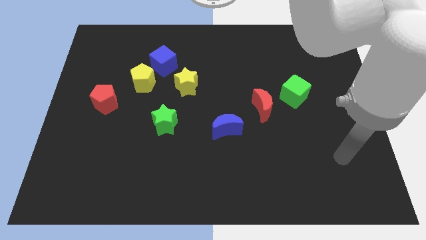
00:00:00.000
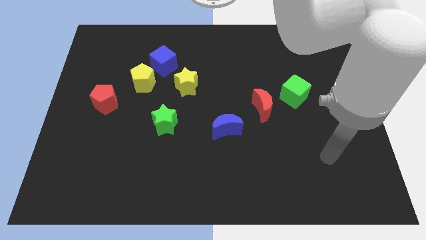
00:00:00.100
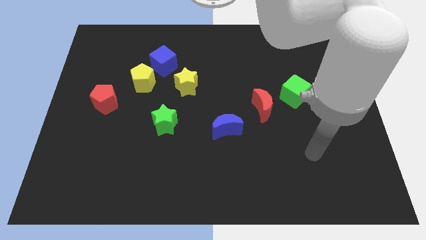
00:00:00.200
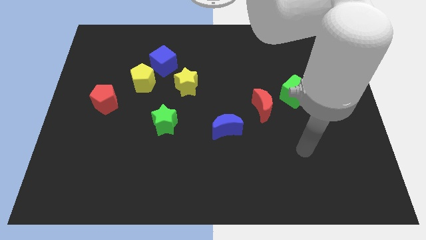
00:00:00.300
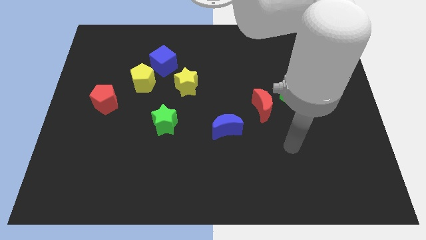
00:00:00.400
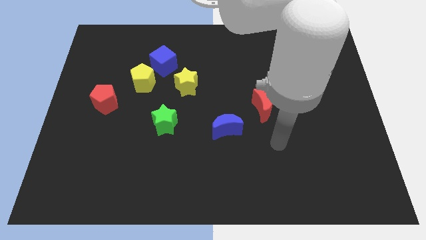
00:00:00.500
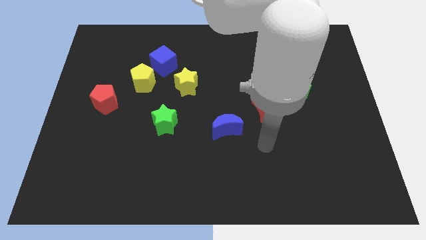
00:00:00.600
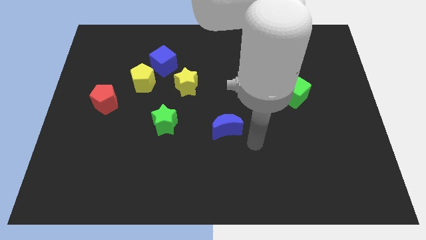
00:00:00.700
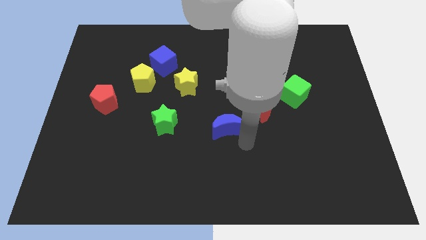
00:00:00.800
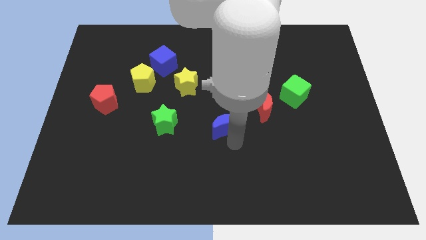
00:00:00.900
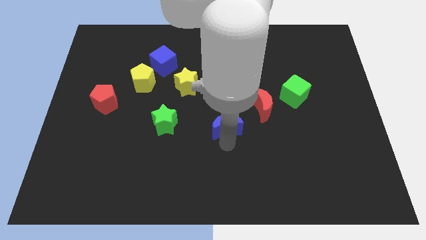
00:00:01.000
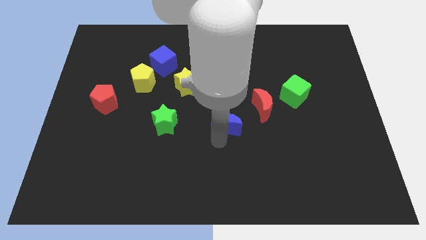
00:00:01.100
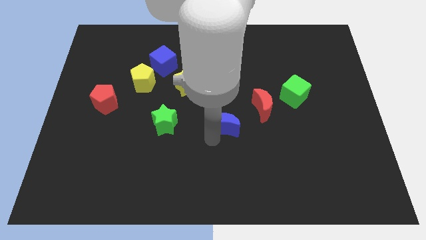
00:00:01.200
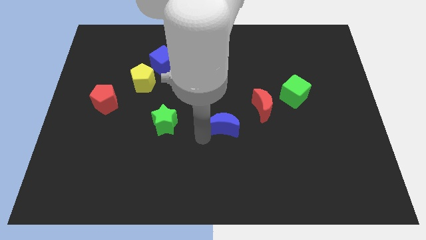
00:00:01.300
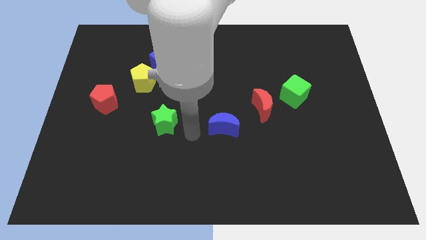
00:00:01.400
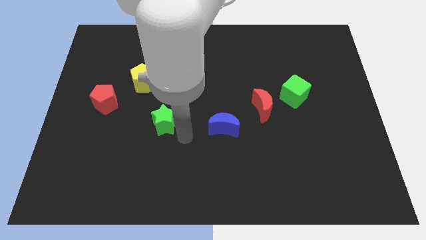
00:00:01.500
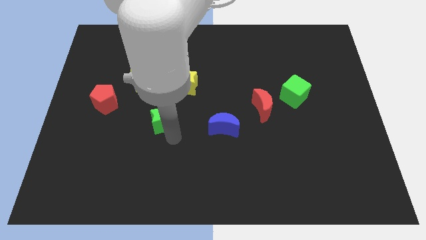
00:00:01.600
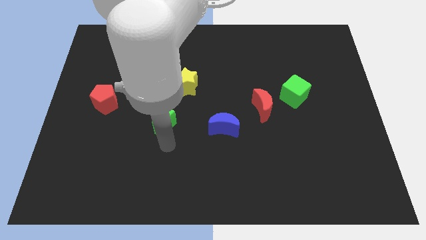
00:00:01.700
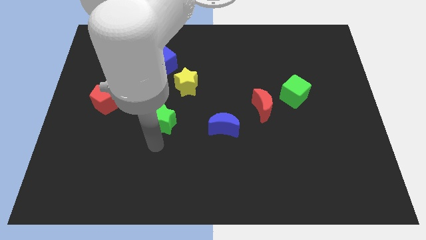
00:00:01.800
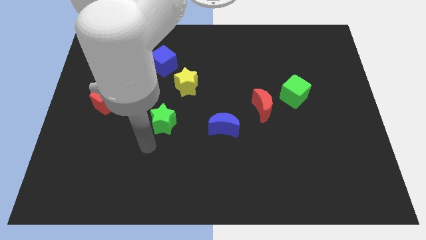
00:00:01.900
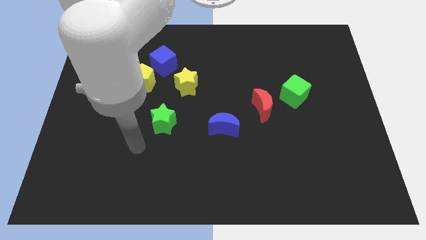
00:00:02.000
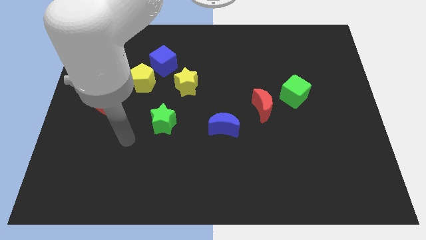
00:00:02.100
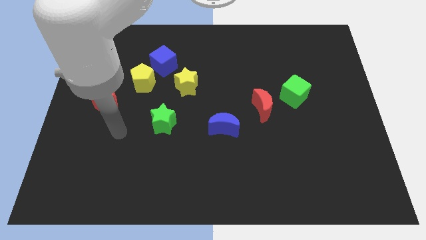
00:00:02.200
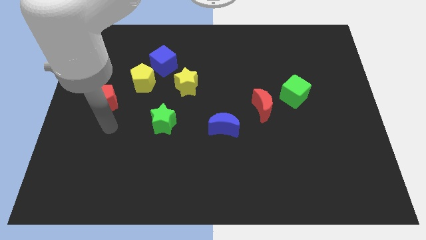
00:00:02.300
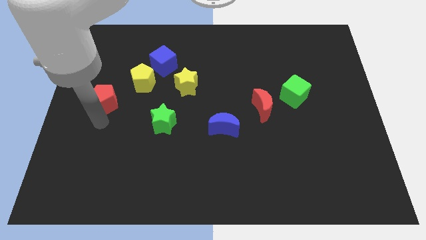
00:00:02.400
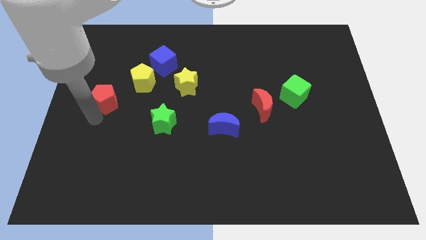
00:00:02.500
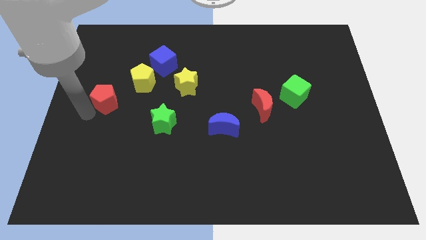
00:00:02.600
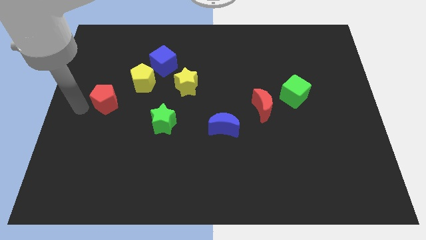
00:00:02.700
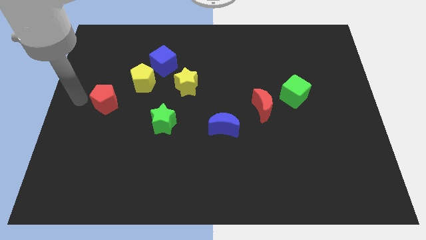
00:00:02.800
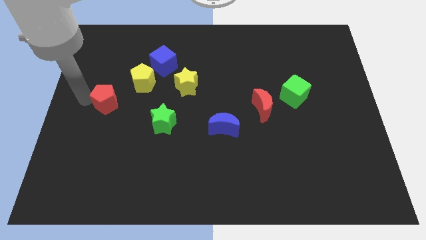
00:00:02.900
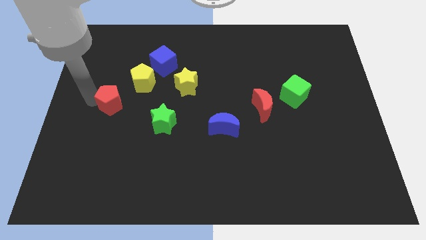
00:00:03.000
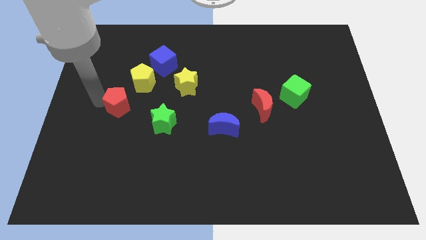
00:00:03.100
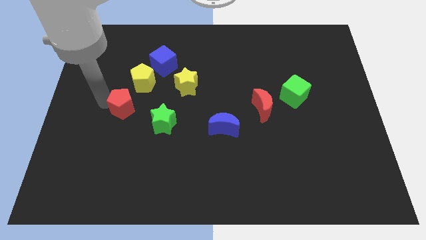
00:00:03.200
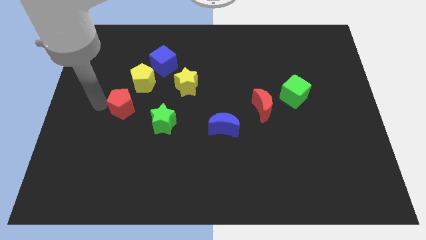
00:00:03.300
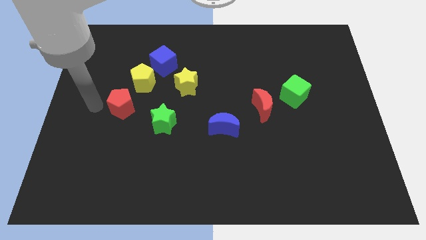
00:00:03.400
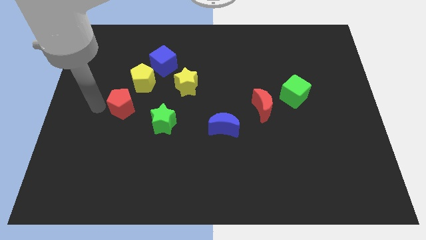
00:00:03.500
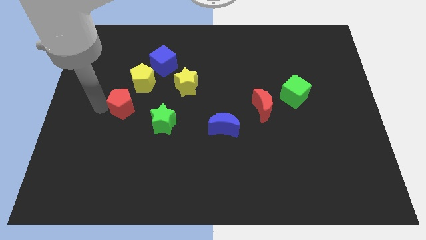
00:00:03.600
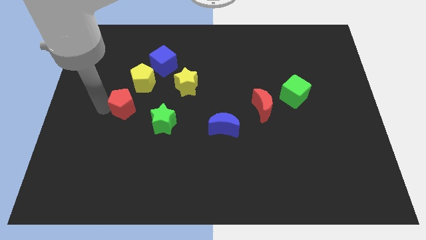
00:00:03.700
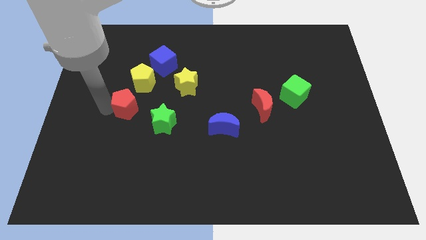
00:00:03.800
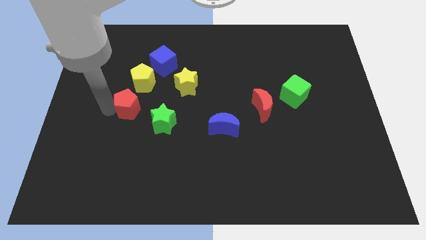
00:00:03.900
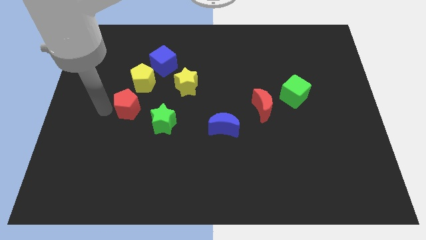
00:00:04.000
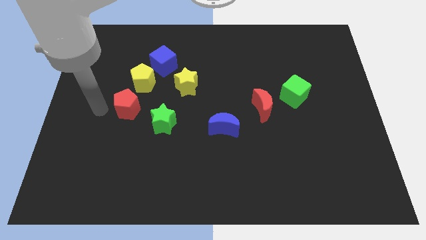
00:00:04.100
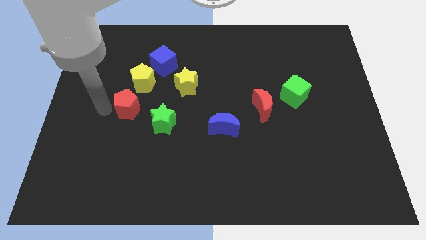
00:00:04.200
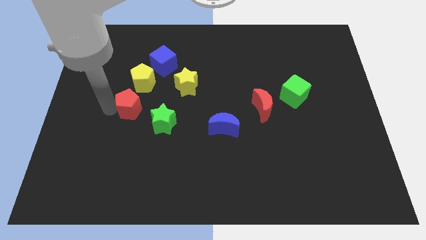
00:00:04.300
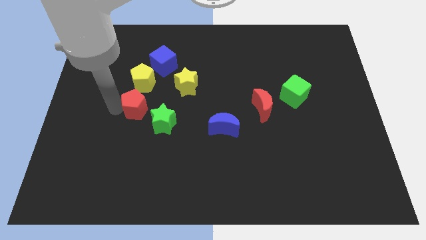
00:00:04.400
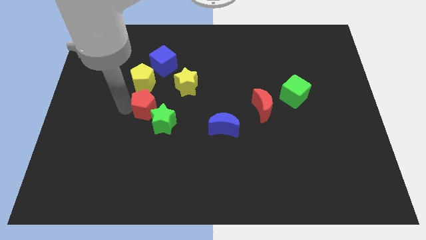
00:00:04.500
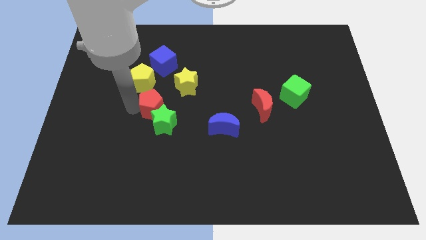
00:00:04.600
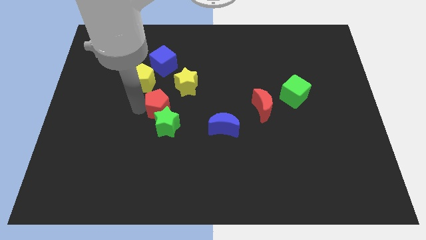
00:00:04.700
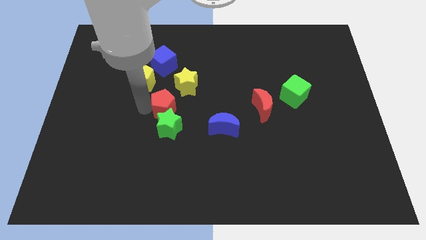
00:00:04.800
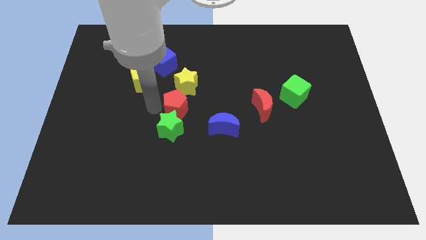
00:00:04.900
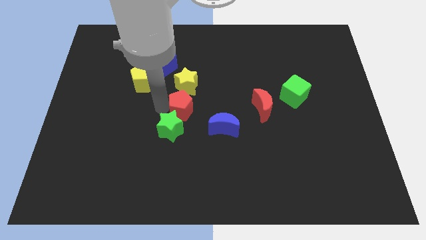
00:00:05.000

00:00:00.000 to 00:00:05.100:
slide the red pentagon diagonally up and to the left of the blue moon

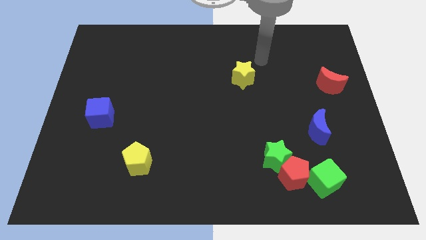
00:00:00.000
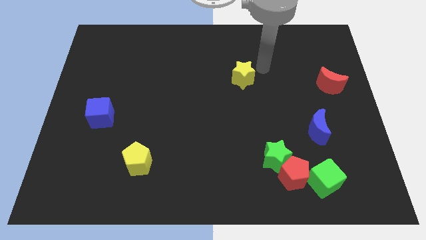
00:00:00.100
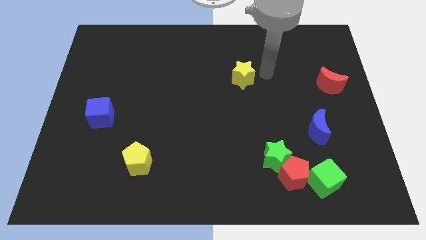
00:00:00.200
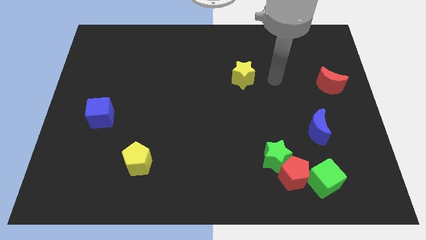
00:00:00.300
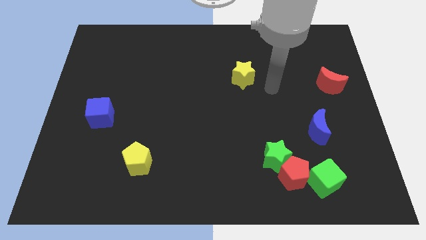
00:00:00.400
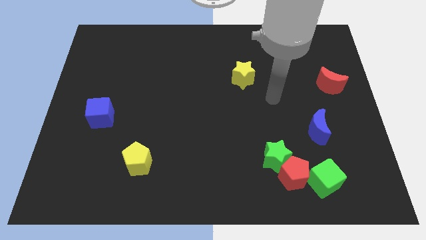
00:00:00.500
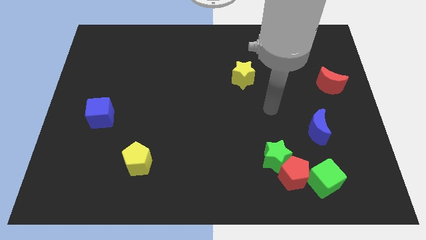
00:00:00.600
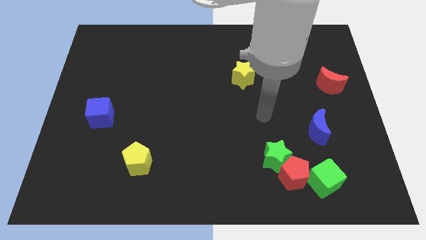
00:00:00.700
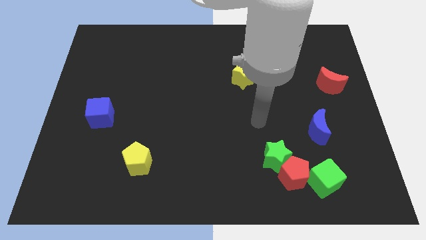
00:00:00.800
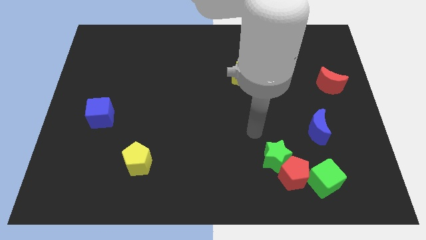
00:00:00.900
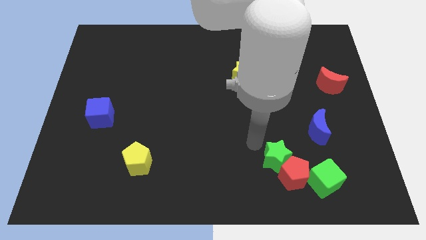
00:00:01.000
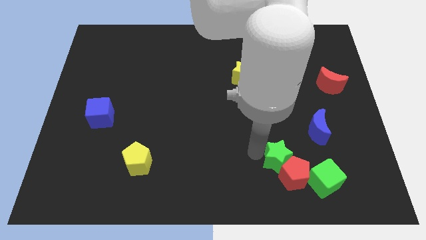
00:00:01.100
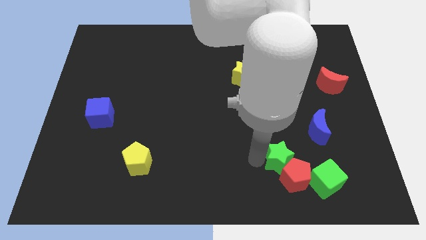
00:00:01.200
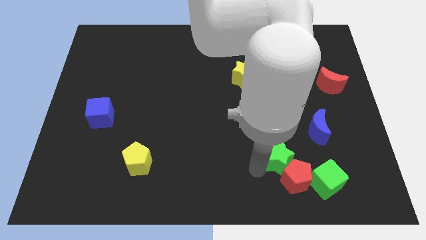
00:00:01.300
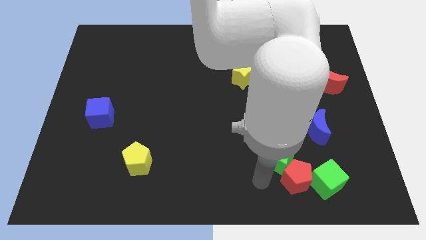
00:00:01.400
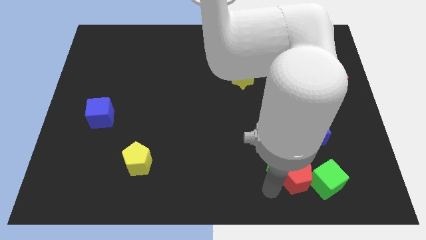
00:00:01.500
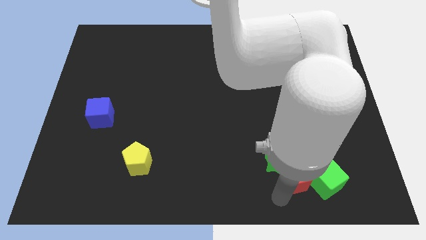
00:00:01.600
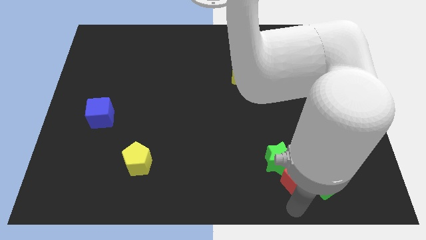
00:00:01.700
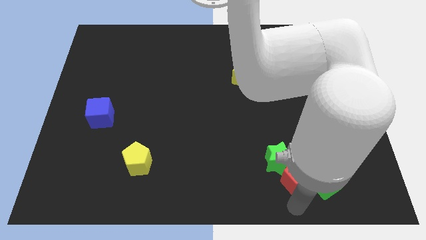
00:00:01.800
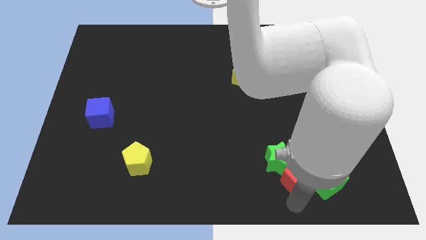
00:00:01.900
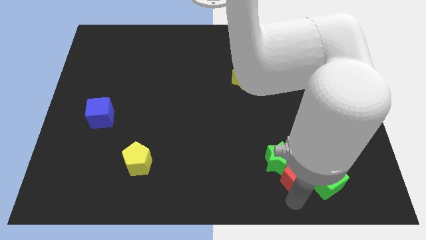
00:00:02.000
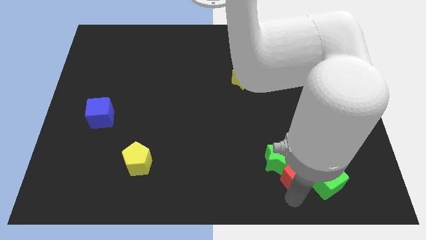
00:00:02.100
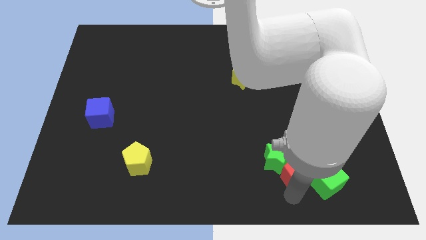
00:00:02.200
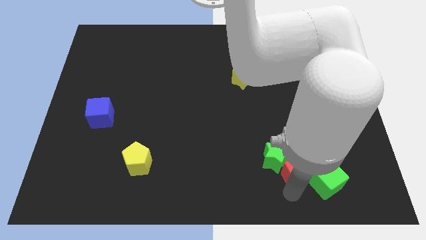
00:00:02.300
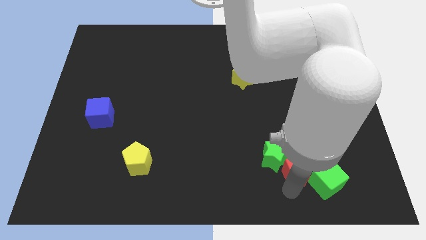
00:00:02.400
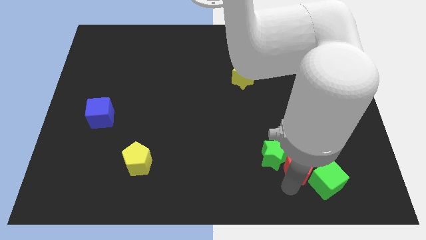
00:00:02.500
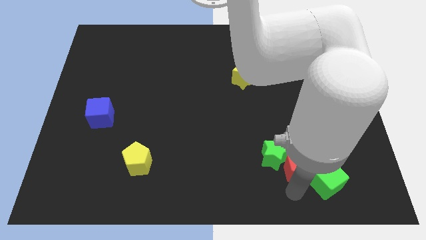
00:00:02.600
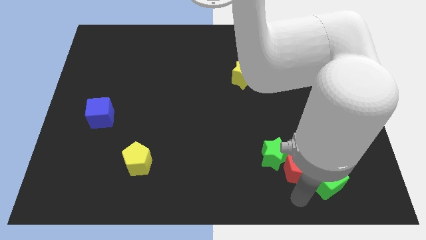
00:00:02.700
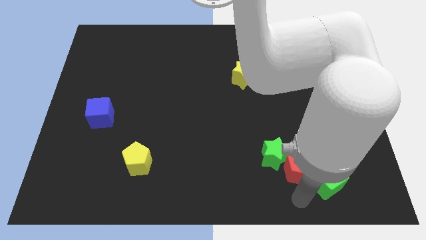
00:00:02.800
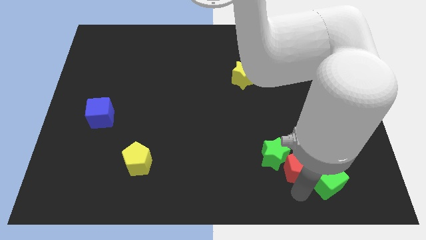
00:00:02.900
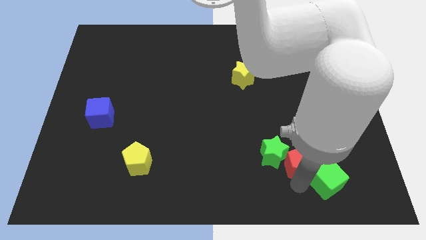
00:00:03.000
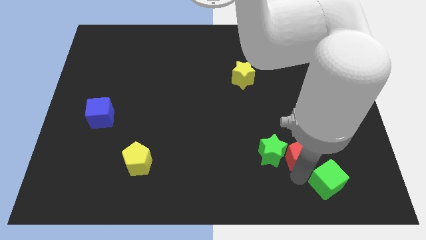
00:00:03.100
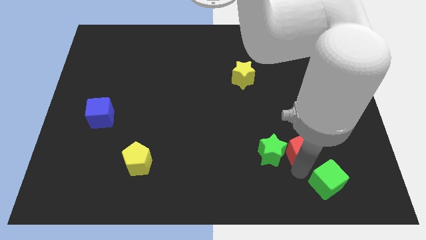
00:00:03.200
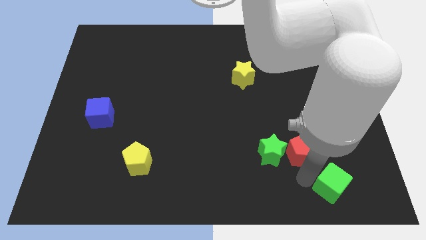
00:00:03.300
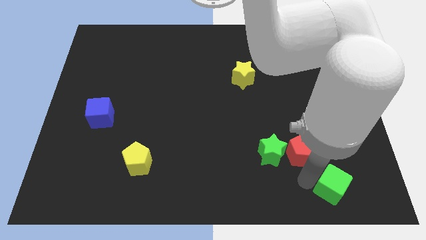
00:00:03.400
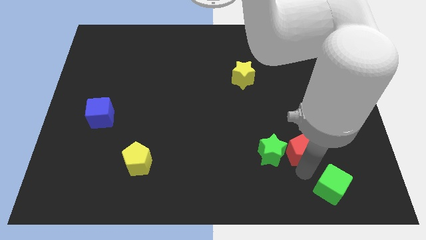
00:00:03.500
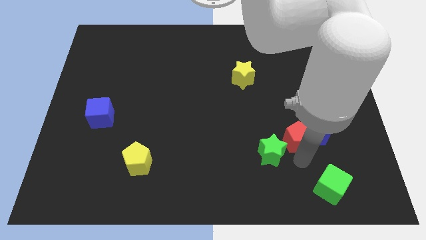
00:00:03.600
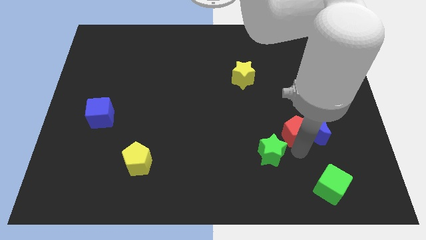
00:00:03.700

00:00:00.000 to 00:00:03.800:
move the red pentagon to the top left of the blue moon
